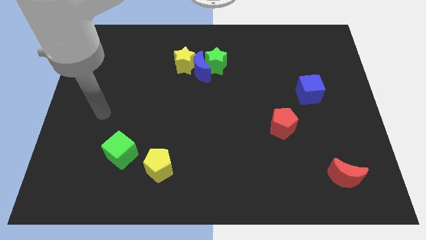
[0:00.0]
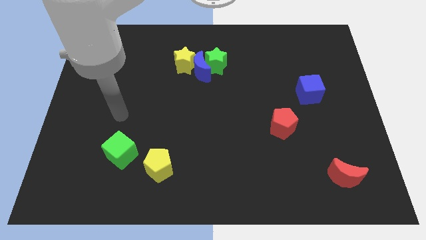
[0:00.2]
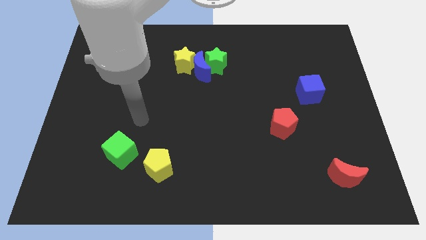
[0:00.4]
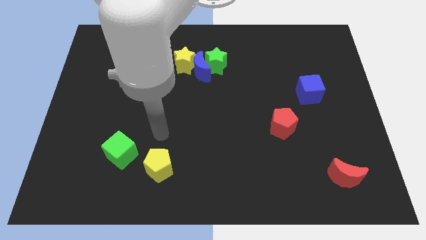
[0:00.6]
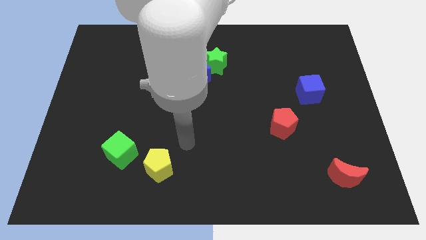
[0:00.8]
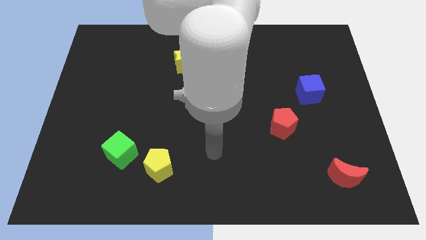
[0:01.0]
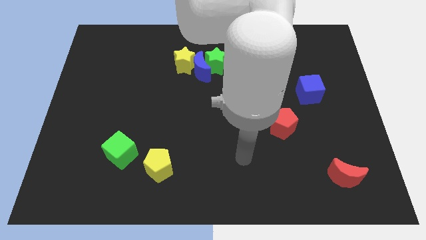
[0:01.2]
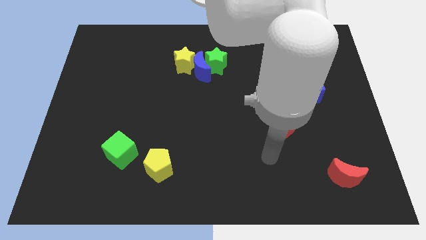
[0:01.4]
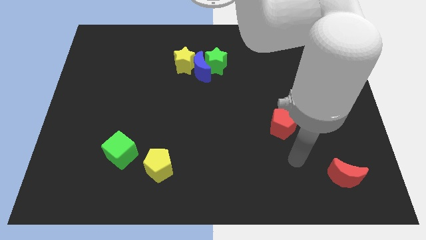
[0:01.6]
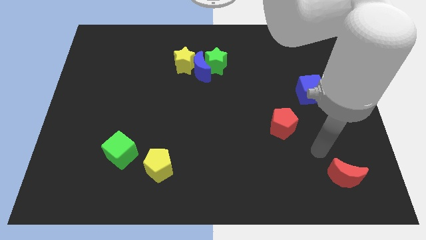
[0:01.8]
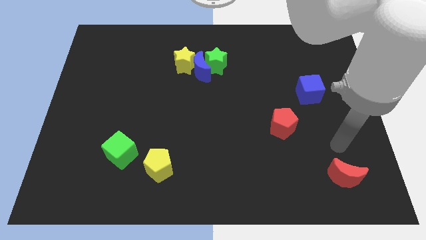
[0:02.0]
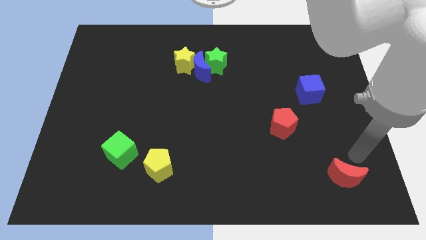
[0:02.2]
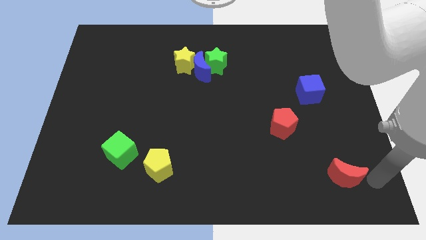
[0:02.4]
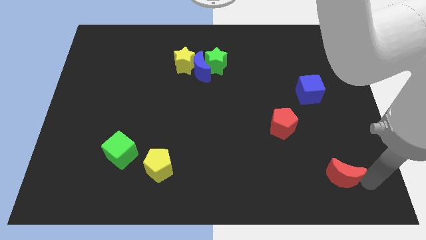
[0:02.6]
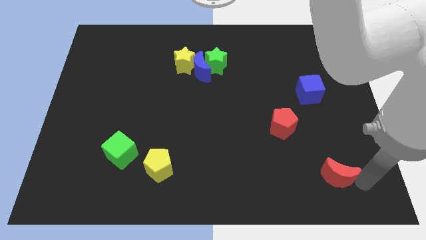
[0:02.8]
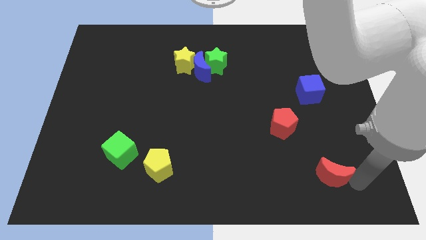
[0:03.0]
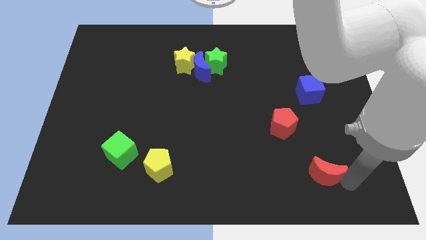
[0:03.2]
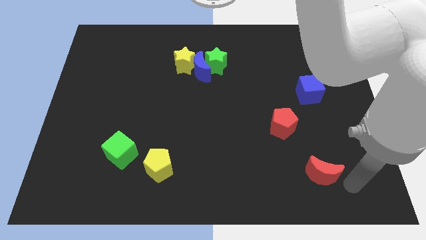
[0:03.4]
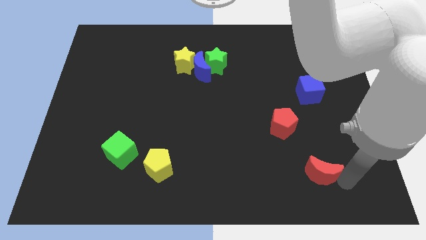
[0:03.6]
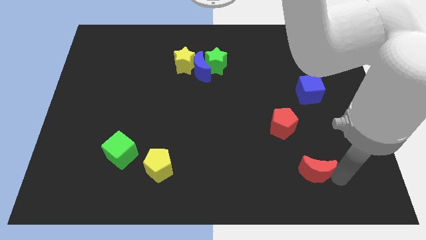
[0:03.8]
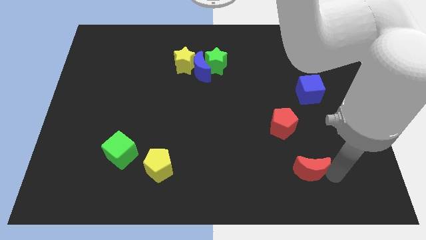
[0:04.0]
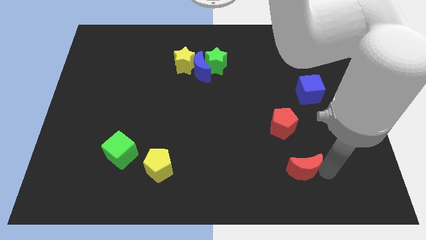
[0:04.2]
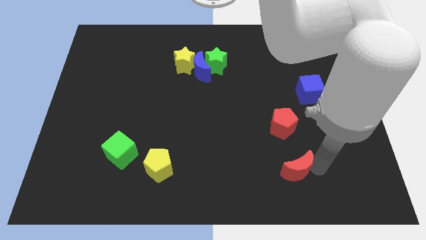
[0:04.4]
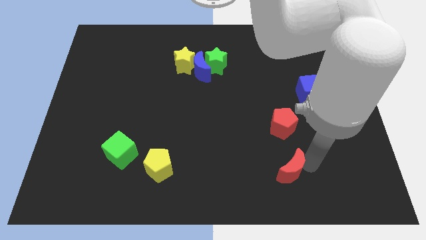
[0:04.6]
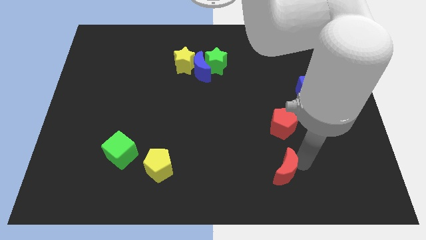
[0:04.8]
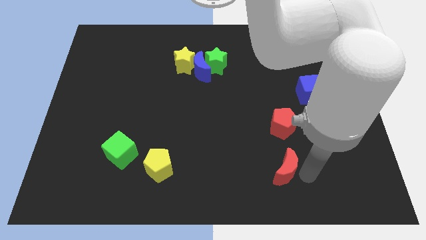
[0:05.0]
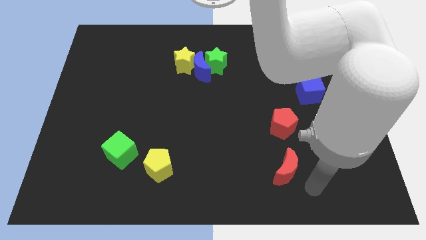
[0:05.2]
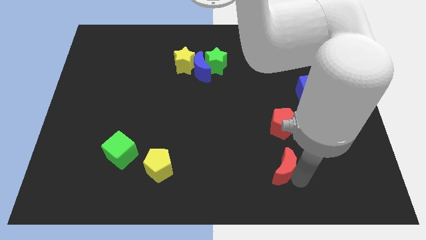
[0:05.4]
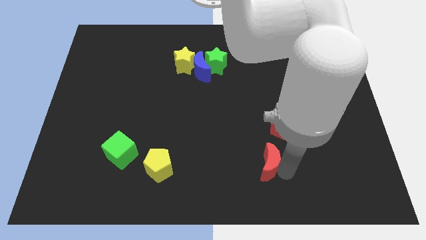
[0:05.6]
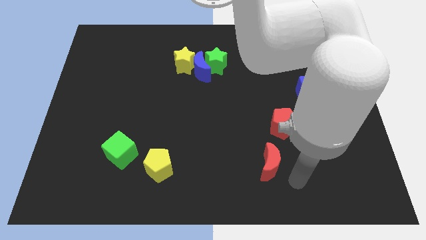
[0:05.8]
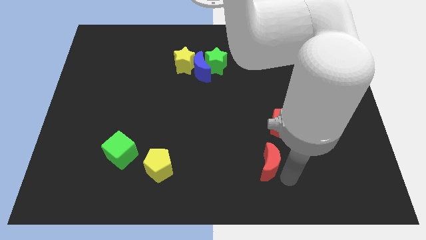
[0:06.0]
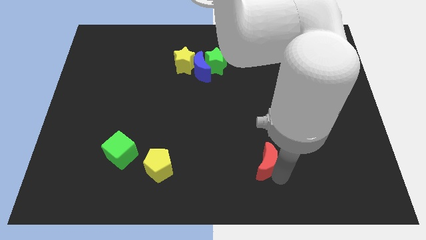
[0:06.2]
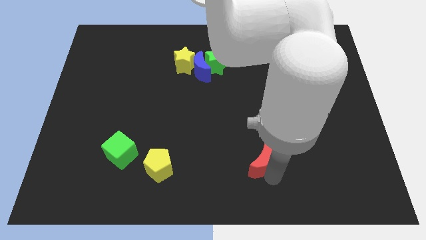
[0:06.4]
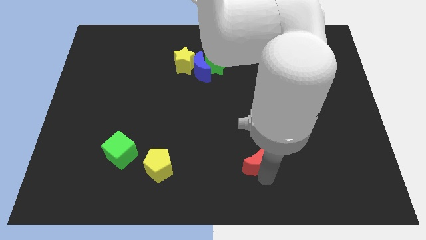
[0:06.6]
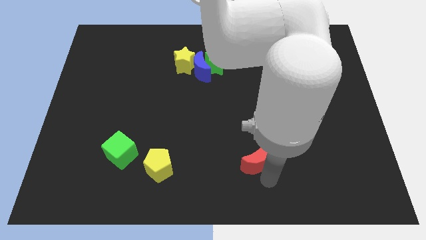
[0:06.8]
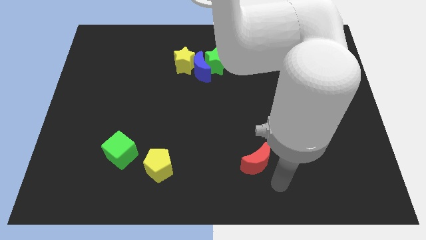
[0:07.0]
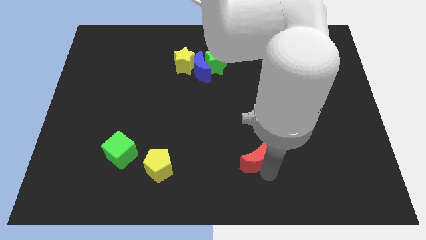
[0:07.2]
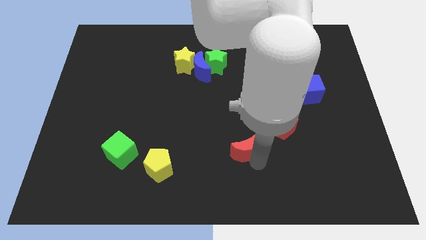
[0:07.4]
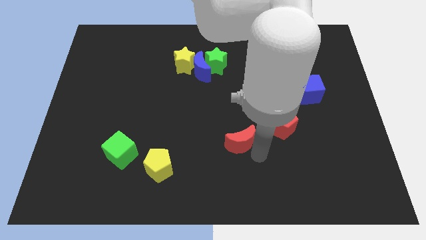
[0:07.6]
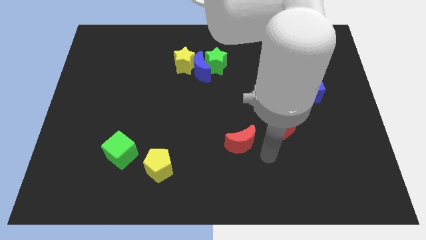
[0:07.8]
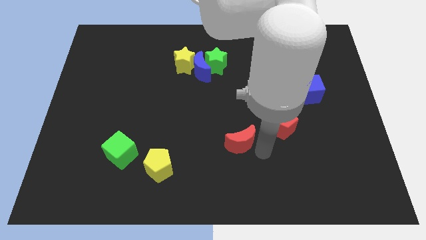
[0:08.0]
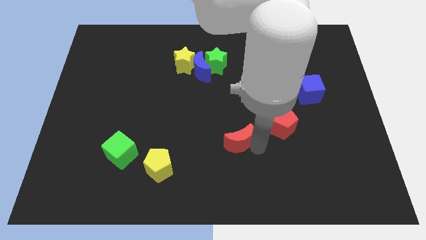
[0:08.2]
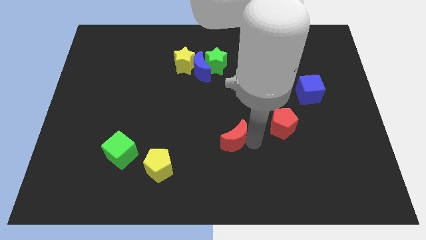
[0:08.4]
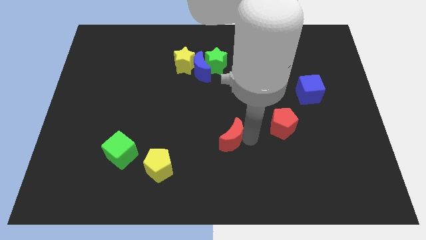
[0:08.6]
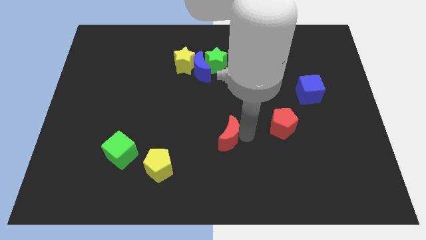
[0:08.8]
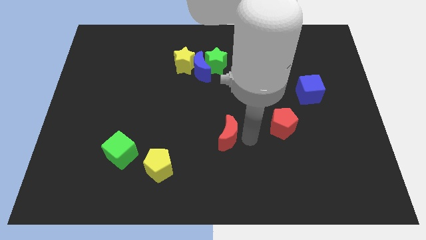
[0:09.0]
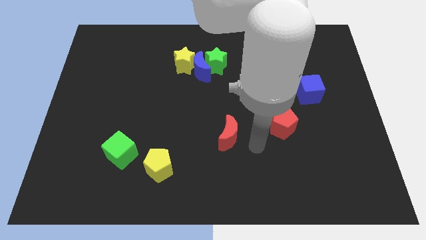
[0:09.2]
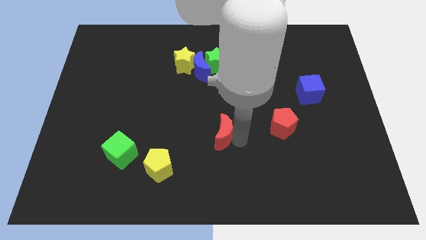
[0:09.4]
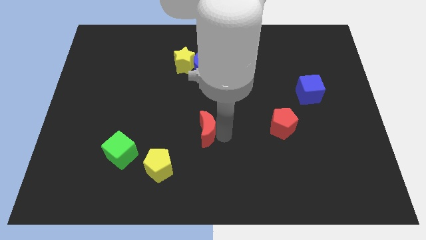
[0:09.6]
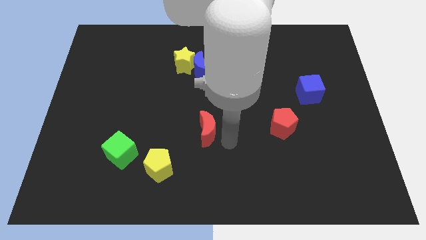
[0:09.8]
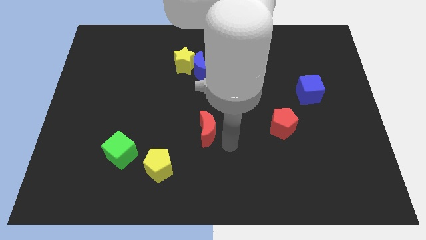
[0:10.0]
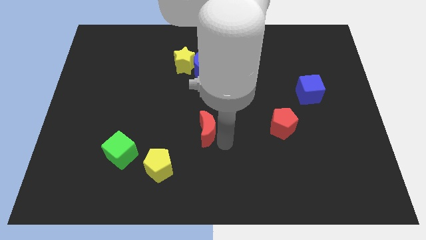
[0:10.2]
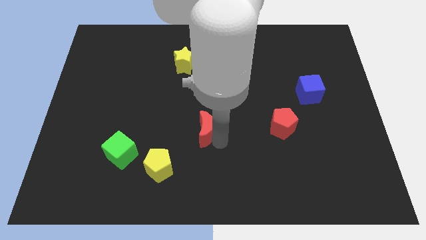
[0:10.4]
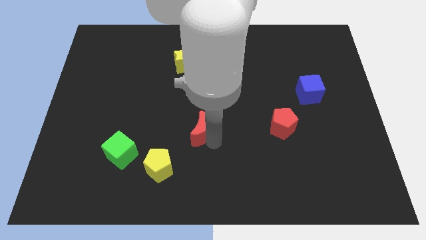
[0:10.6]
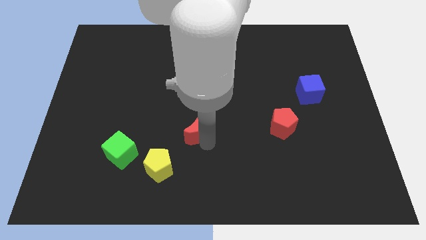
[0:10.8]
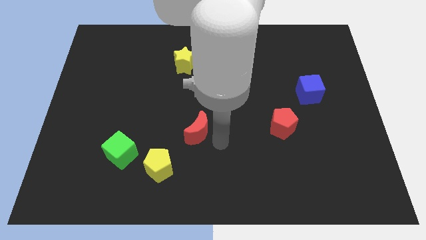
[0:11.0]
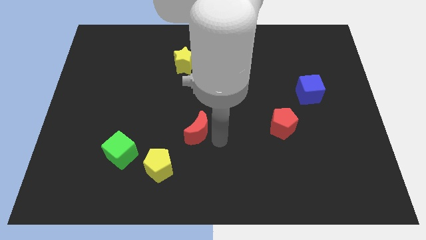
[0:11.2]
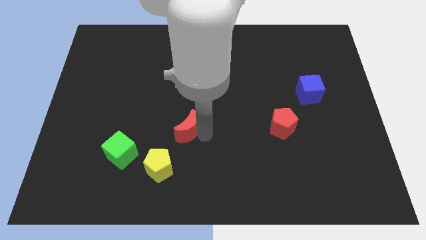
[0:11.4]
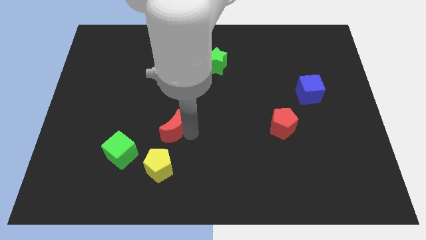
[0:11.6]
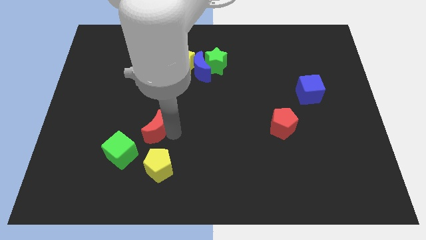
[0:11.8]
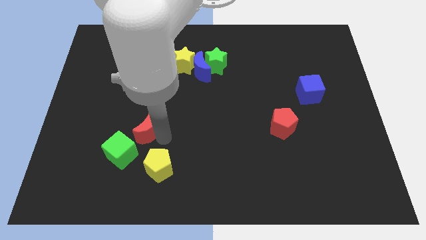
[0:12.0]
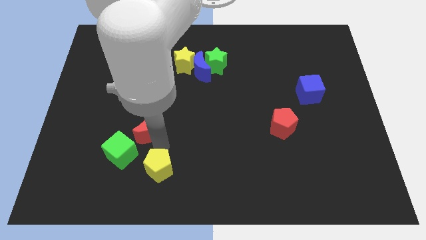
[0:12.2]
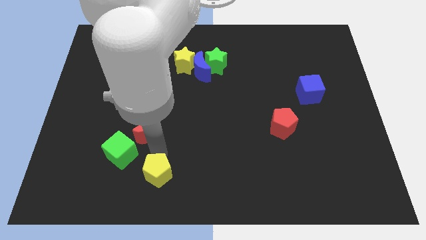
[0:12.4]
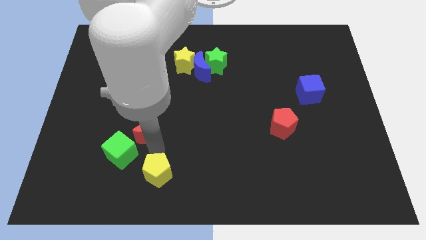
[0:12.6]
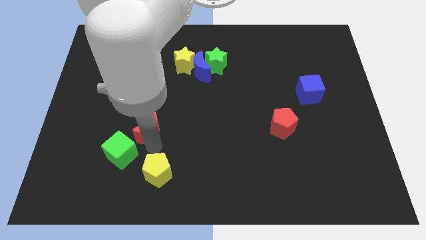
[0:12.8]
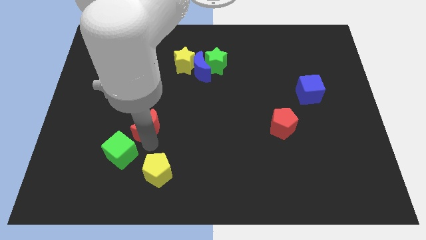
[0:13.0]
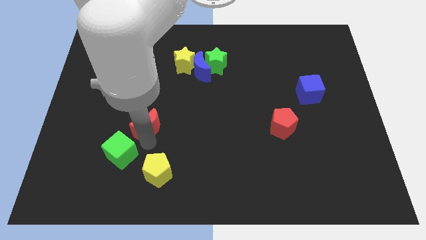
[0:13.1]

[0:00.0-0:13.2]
move the red moon to the top of the green cube
